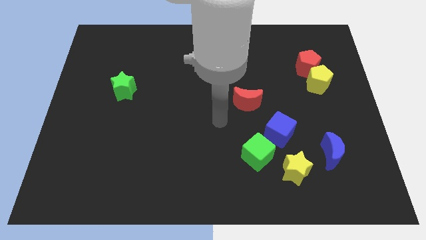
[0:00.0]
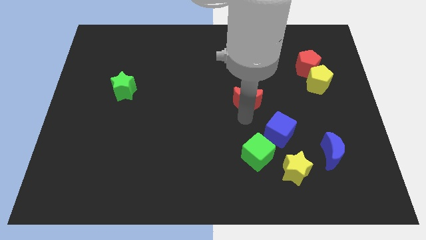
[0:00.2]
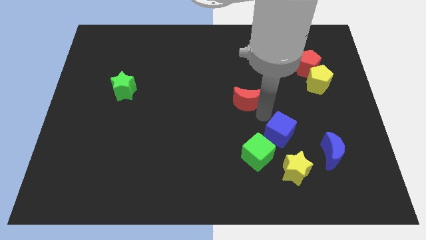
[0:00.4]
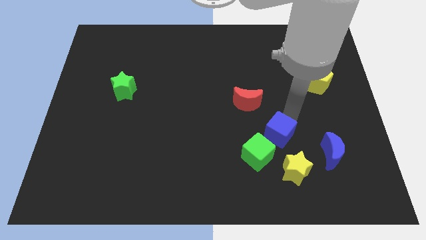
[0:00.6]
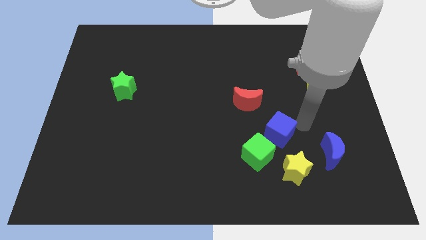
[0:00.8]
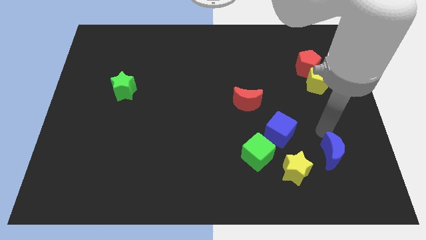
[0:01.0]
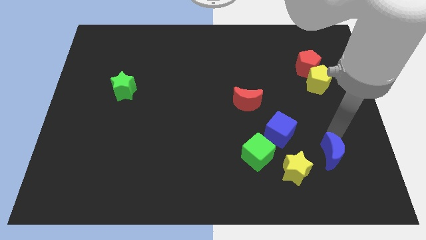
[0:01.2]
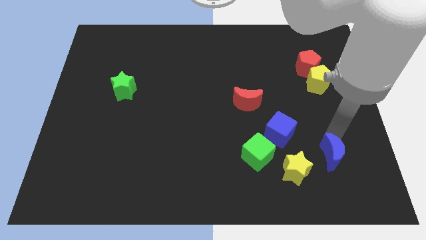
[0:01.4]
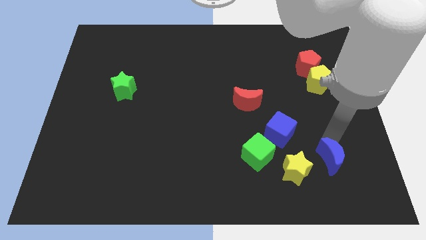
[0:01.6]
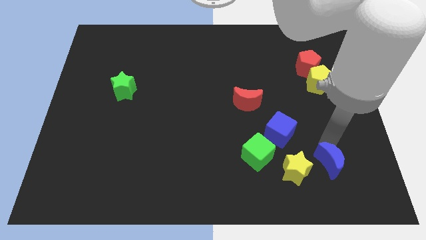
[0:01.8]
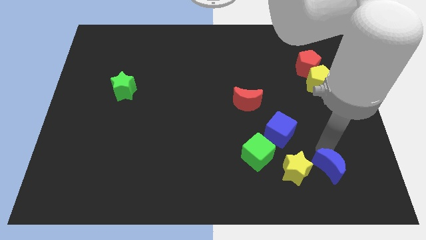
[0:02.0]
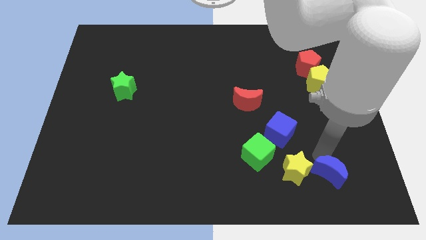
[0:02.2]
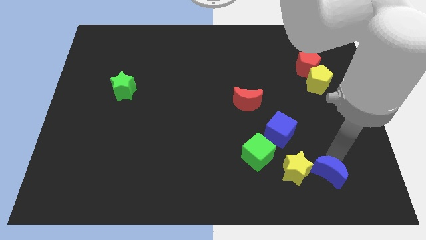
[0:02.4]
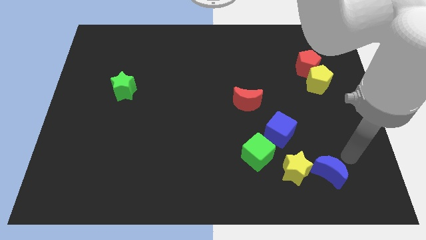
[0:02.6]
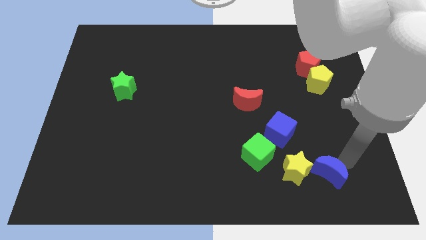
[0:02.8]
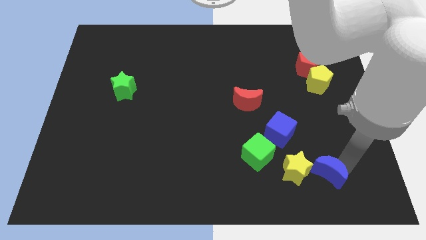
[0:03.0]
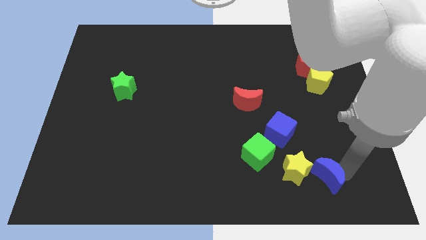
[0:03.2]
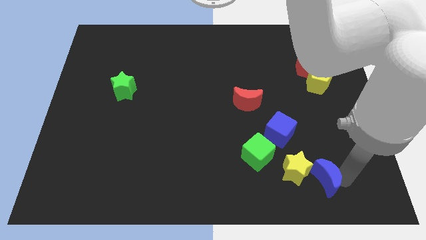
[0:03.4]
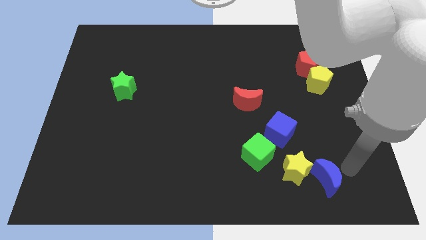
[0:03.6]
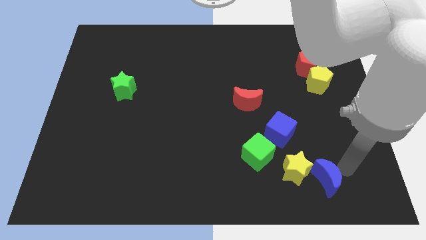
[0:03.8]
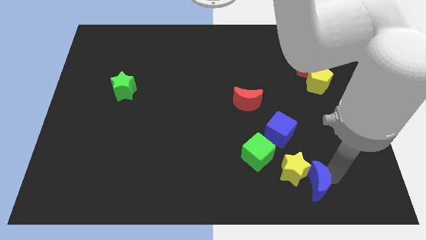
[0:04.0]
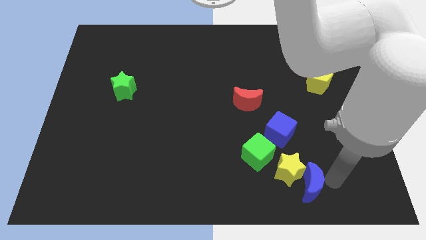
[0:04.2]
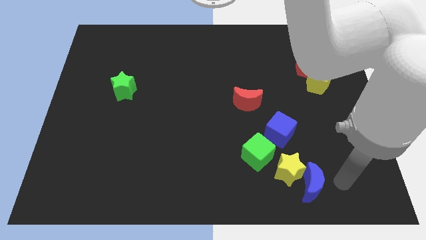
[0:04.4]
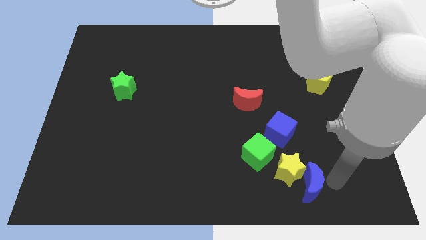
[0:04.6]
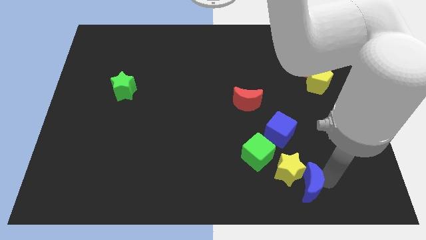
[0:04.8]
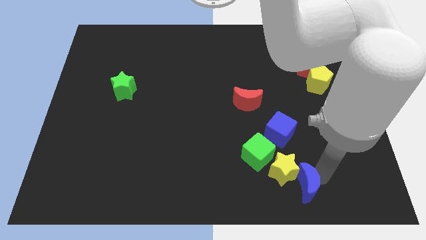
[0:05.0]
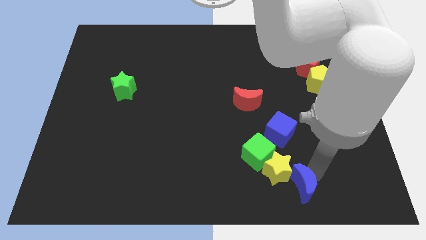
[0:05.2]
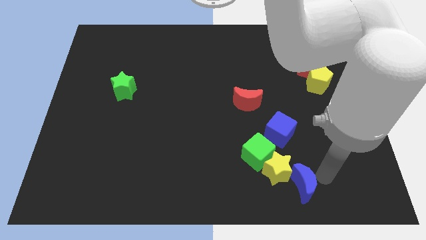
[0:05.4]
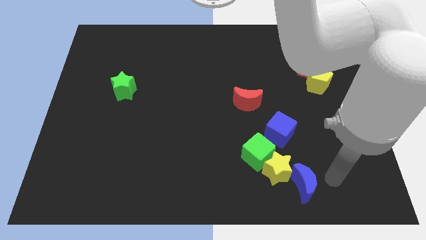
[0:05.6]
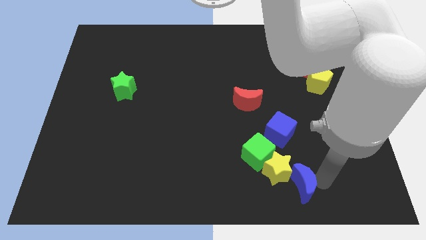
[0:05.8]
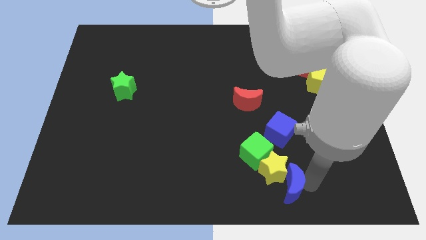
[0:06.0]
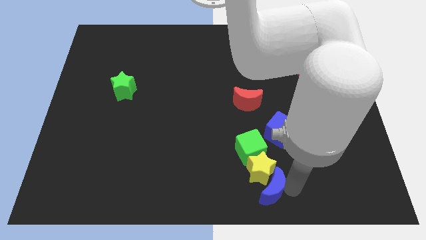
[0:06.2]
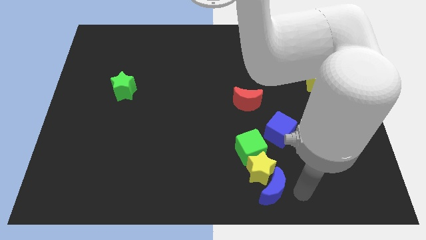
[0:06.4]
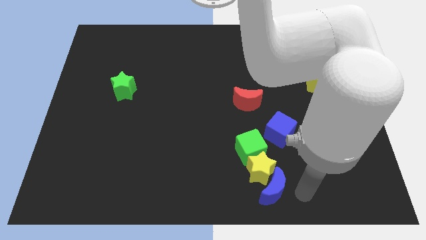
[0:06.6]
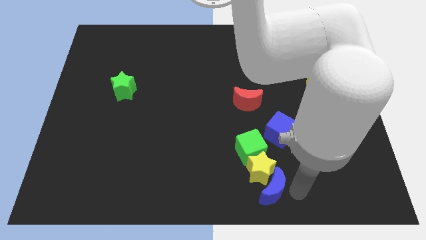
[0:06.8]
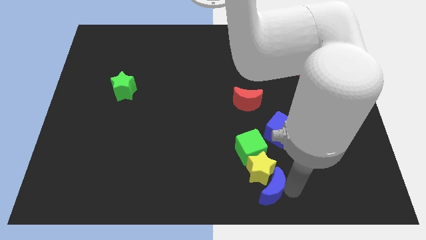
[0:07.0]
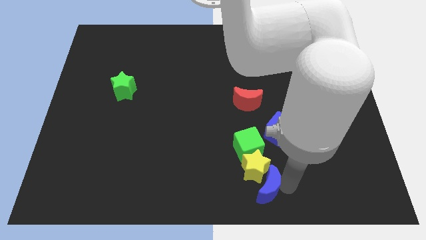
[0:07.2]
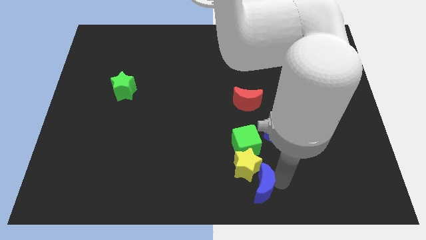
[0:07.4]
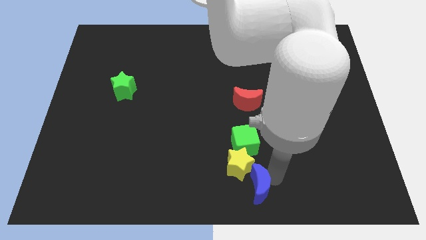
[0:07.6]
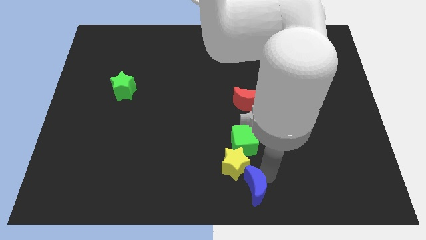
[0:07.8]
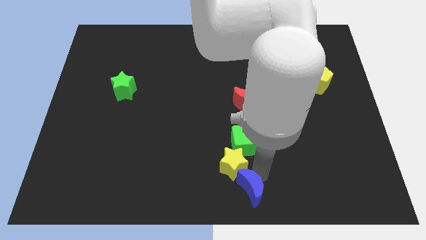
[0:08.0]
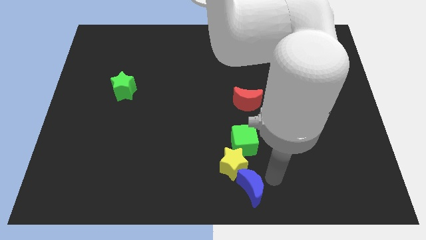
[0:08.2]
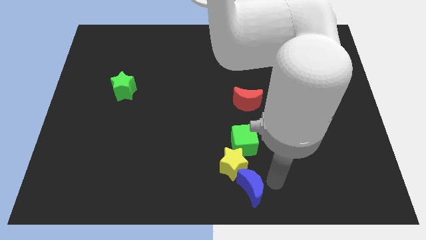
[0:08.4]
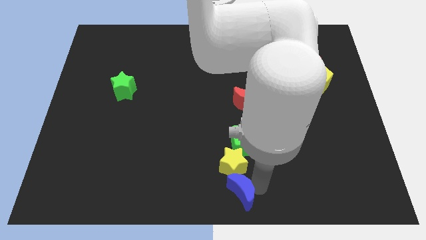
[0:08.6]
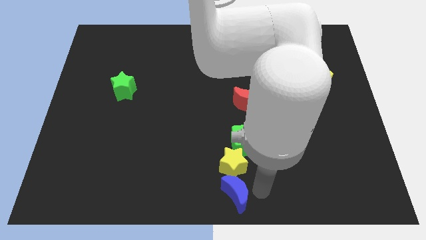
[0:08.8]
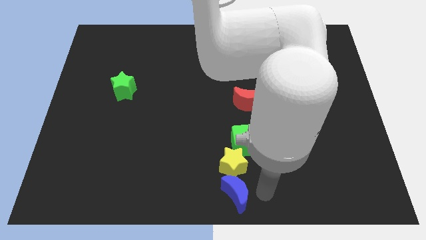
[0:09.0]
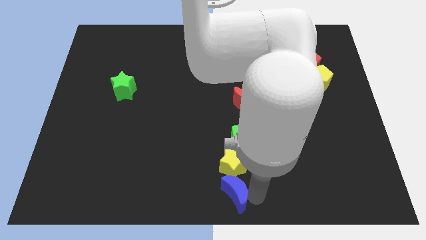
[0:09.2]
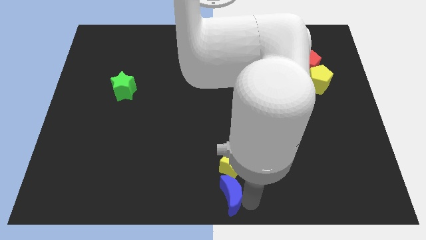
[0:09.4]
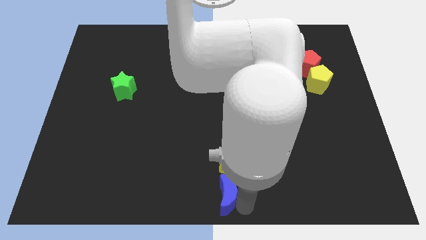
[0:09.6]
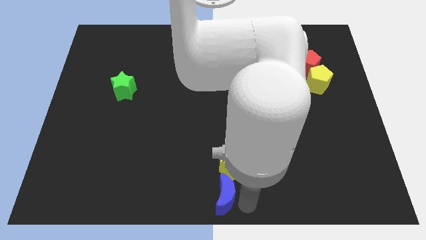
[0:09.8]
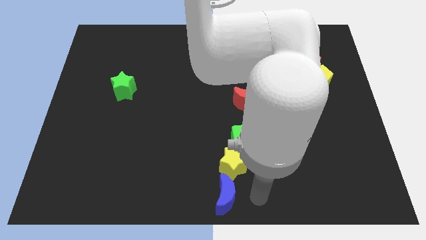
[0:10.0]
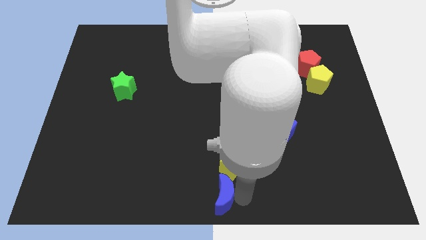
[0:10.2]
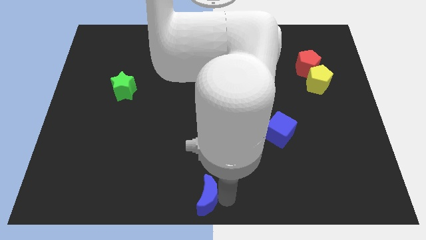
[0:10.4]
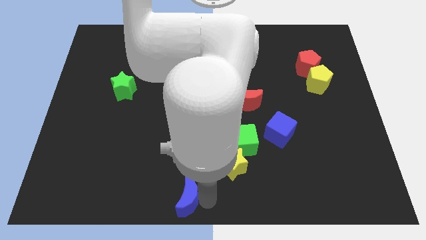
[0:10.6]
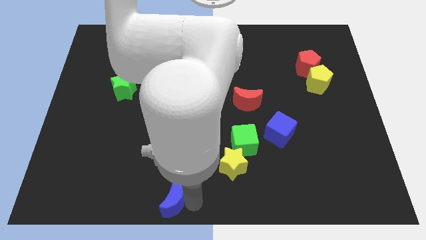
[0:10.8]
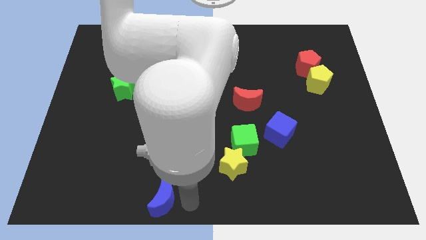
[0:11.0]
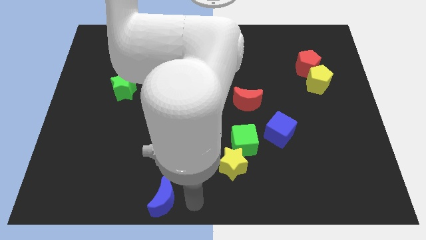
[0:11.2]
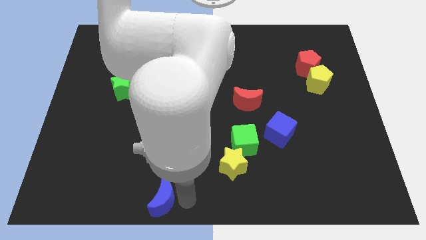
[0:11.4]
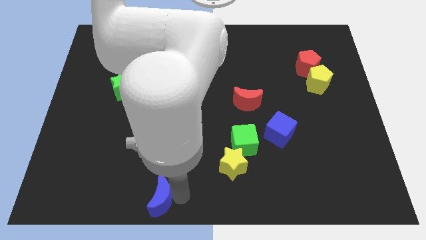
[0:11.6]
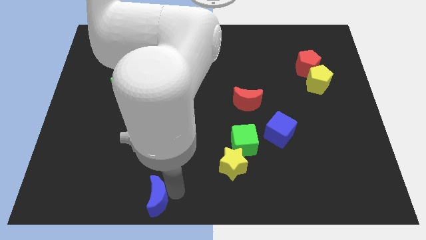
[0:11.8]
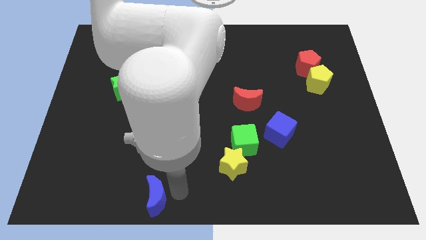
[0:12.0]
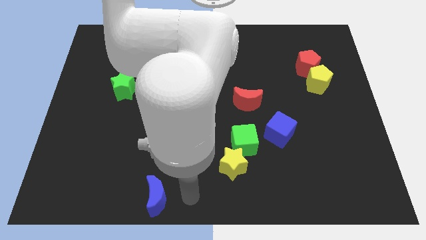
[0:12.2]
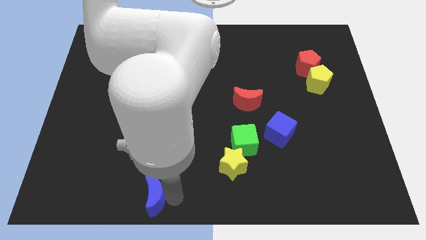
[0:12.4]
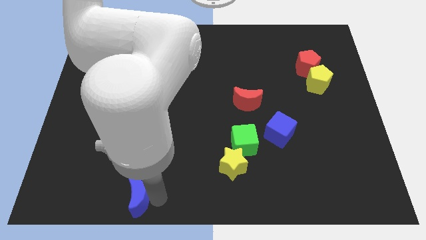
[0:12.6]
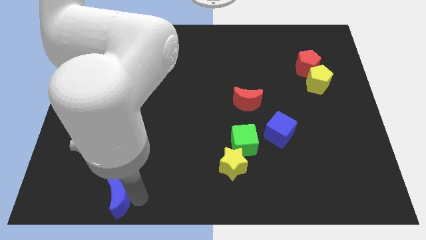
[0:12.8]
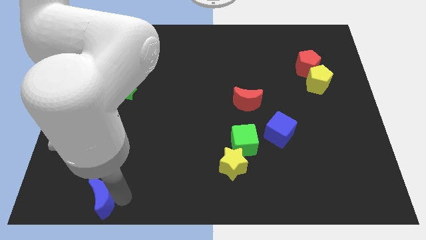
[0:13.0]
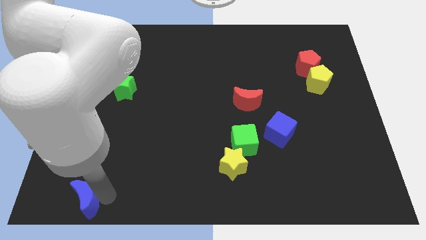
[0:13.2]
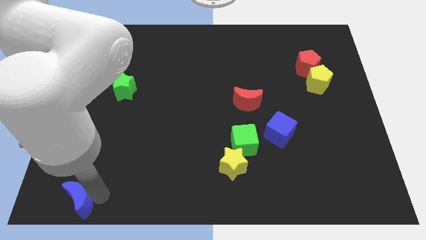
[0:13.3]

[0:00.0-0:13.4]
move the blue moon to the bottom left corner

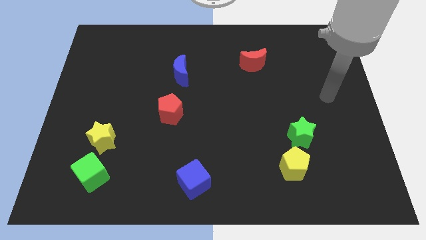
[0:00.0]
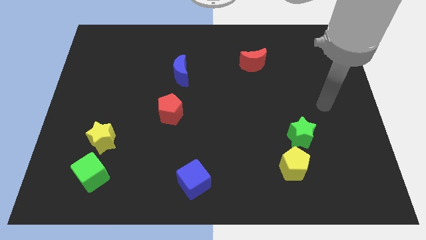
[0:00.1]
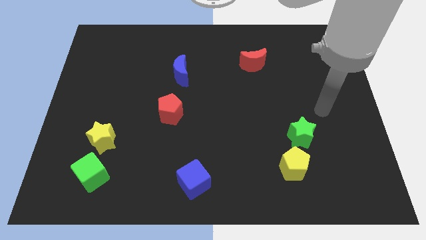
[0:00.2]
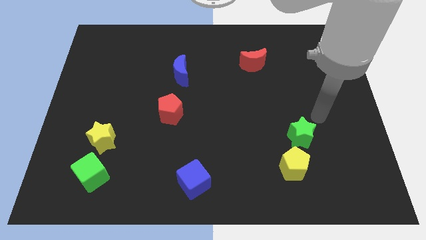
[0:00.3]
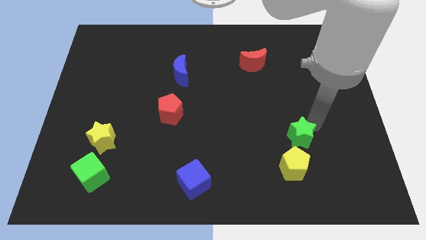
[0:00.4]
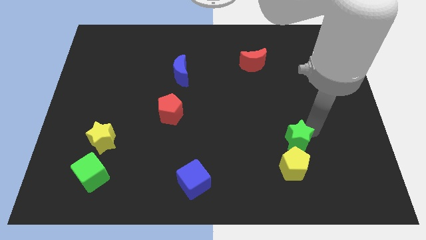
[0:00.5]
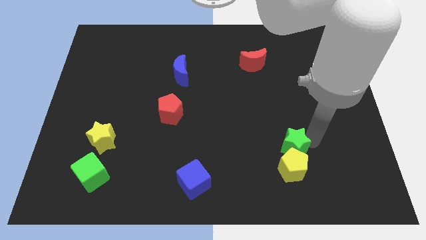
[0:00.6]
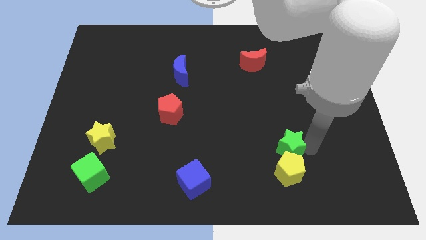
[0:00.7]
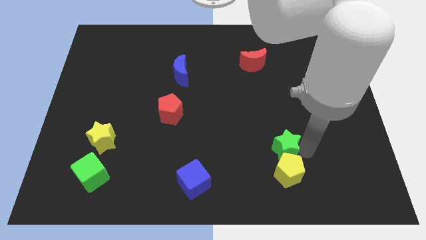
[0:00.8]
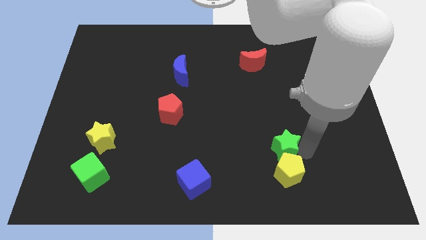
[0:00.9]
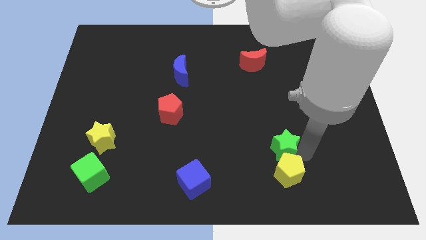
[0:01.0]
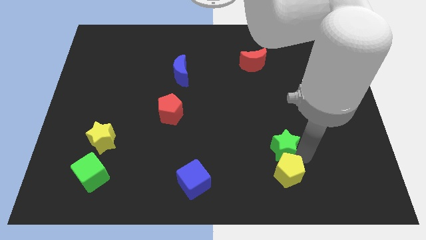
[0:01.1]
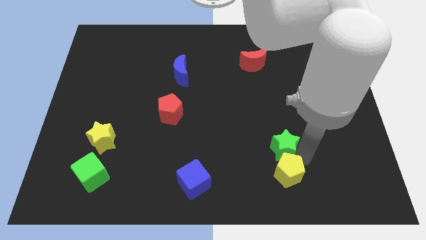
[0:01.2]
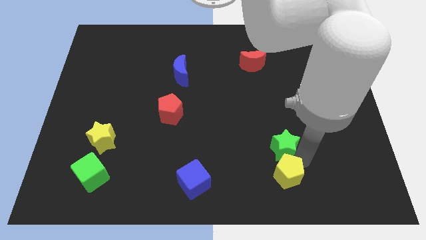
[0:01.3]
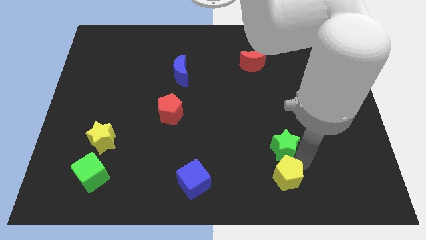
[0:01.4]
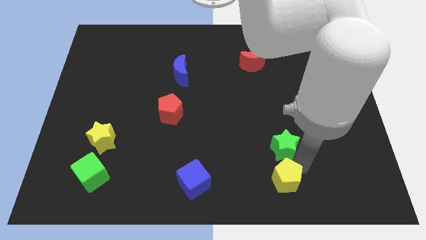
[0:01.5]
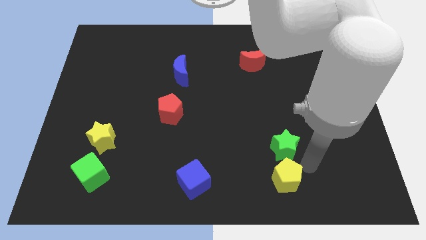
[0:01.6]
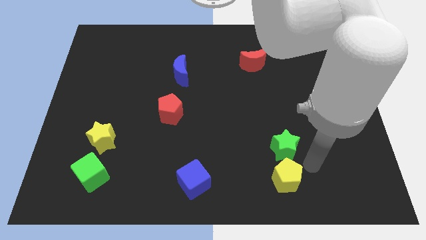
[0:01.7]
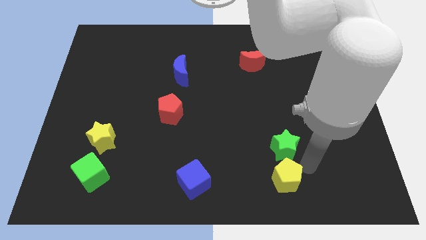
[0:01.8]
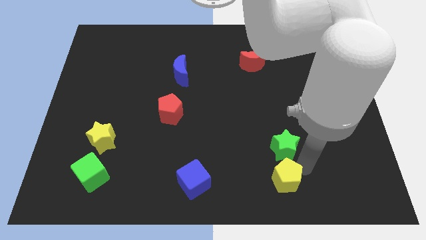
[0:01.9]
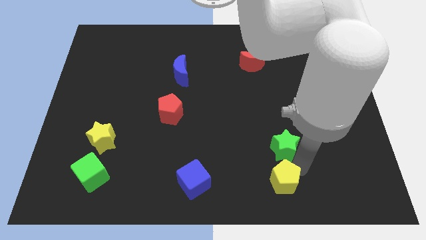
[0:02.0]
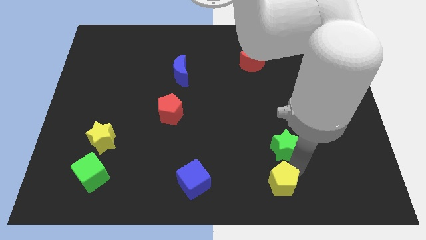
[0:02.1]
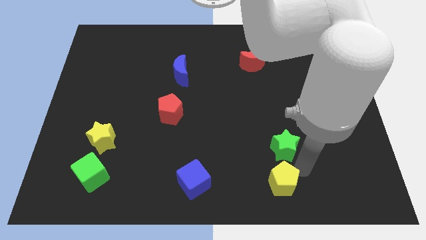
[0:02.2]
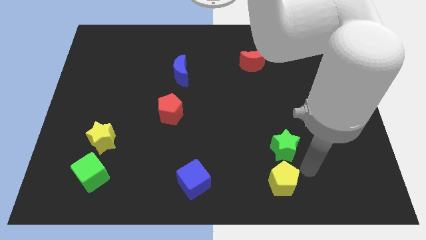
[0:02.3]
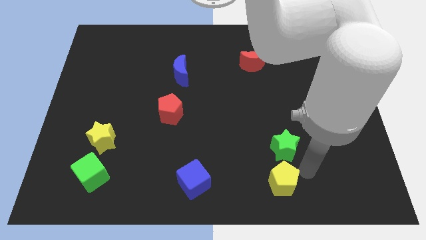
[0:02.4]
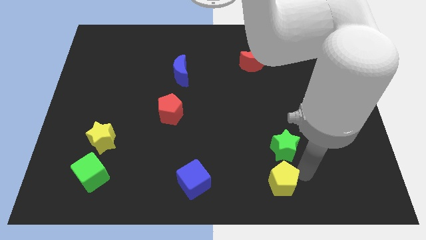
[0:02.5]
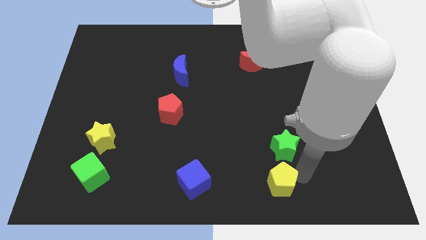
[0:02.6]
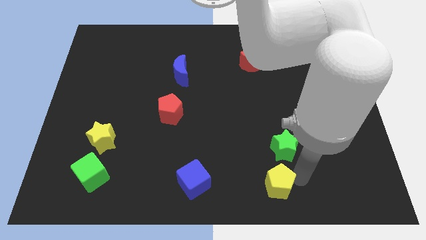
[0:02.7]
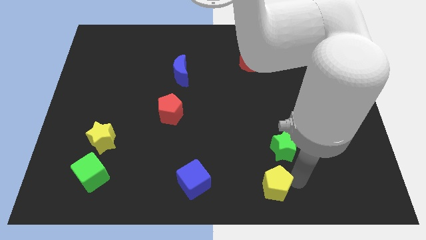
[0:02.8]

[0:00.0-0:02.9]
put the yellow pentagon to the bottom side
